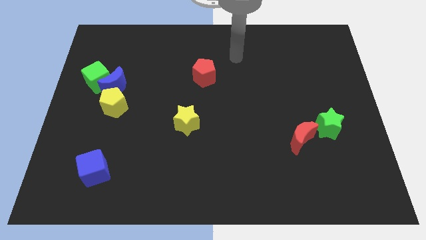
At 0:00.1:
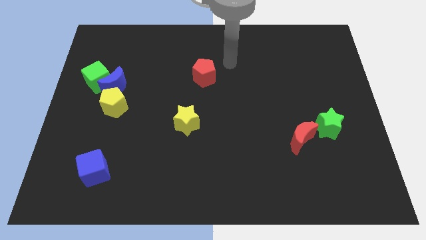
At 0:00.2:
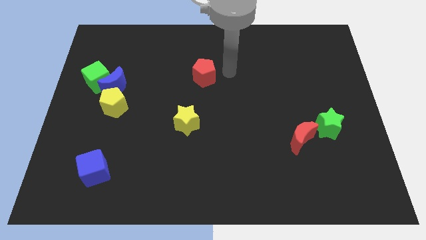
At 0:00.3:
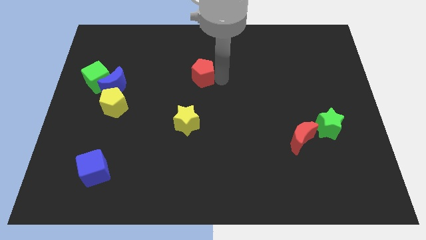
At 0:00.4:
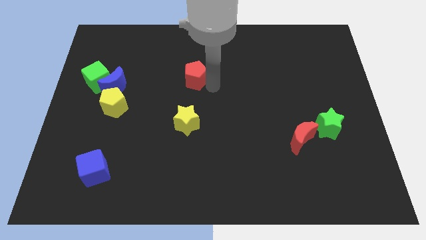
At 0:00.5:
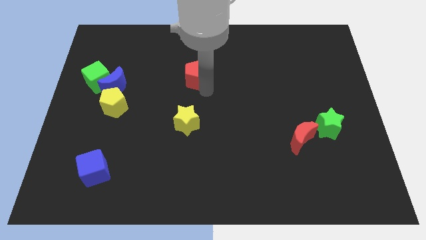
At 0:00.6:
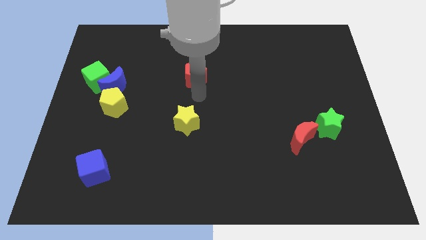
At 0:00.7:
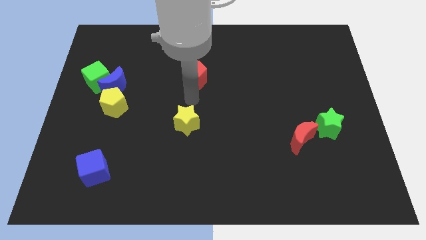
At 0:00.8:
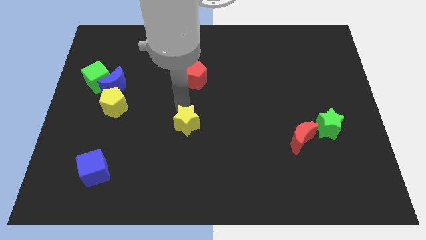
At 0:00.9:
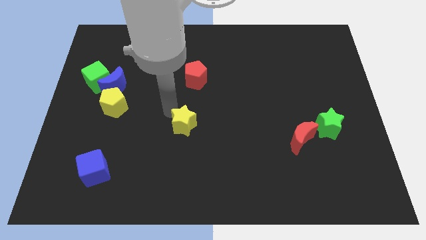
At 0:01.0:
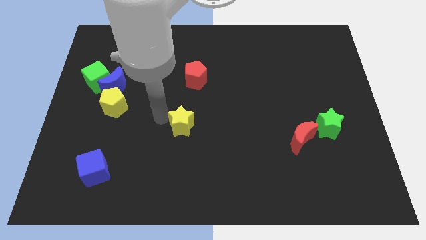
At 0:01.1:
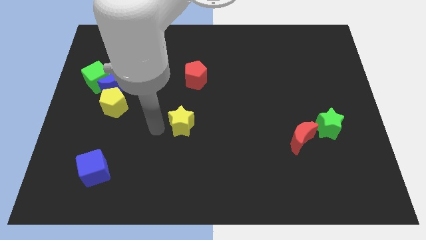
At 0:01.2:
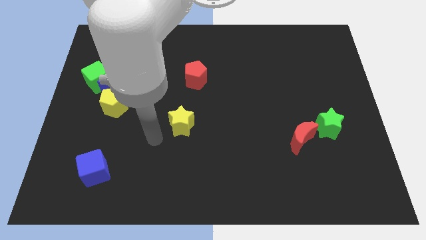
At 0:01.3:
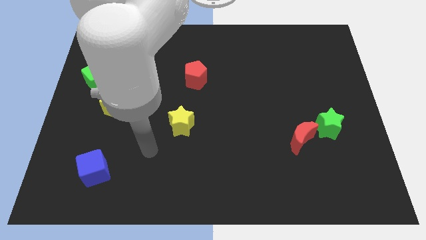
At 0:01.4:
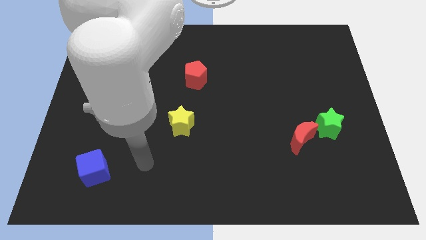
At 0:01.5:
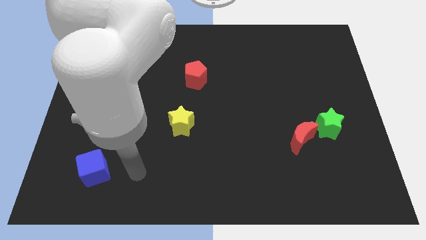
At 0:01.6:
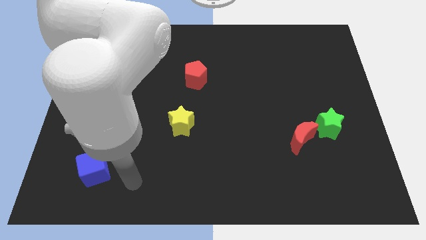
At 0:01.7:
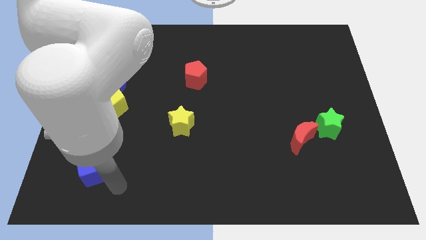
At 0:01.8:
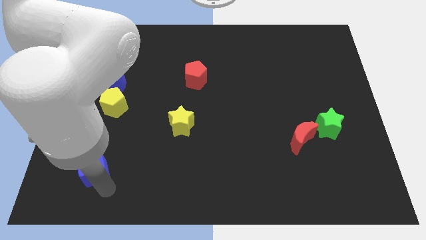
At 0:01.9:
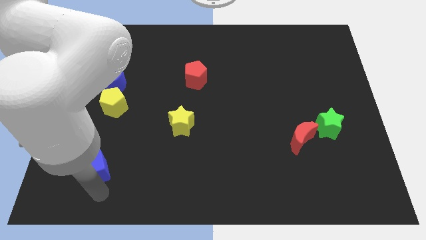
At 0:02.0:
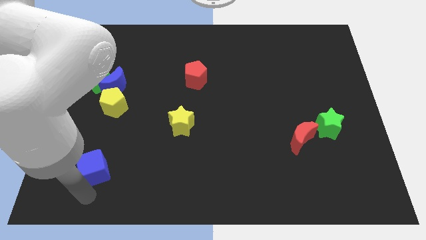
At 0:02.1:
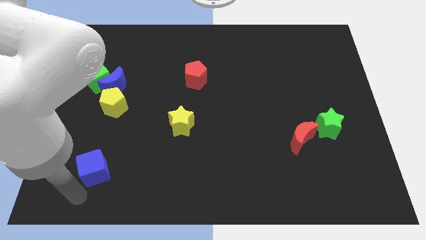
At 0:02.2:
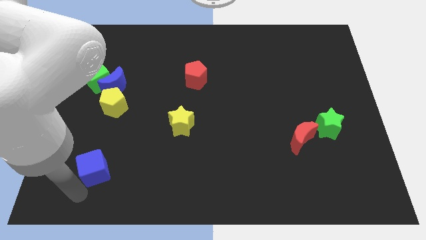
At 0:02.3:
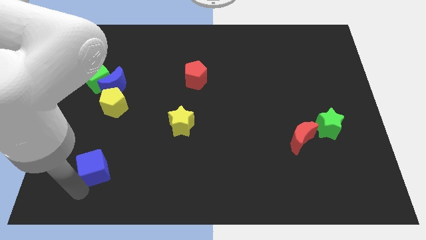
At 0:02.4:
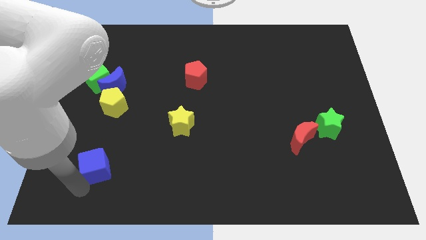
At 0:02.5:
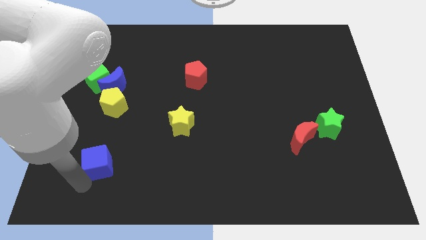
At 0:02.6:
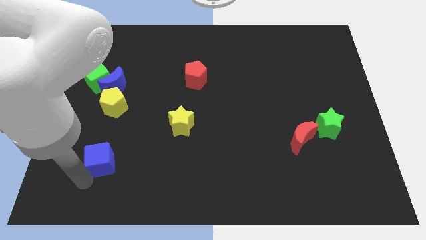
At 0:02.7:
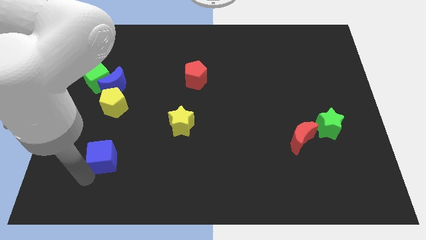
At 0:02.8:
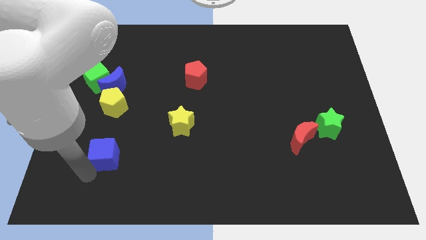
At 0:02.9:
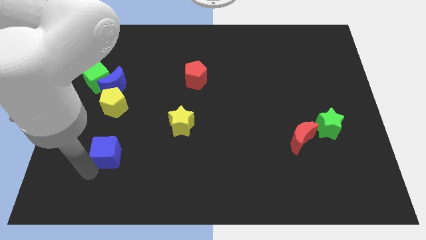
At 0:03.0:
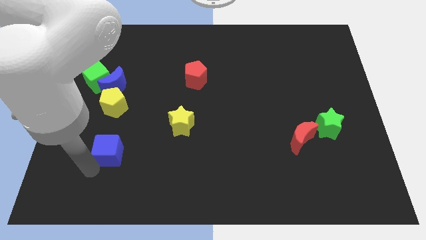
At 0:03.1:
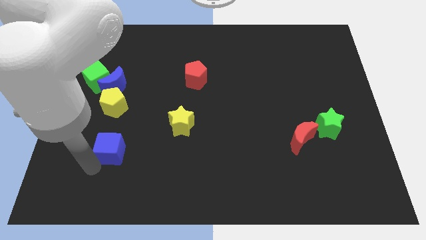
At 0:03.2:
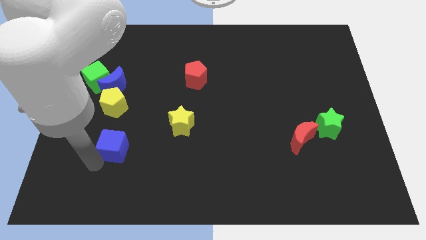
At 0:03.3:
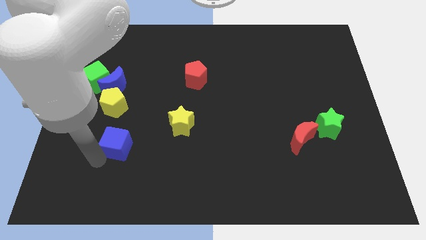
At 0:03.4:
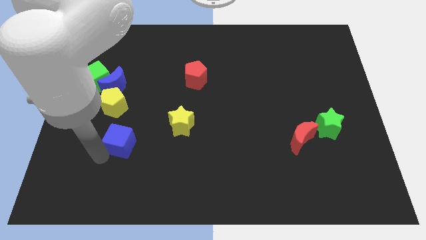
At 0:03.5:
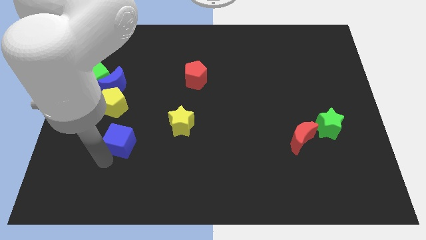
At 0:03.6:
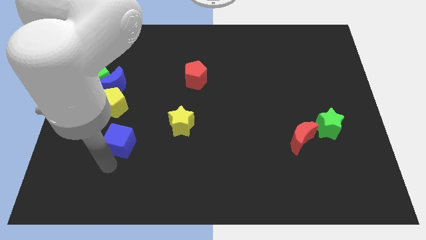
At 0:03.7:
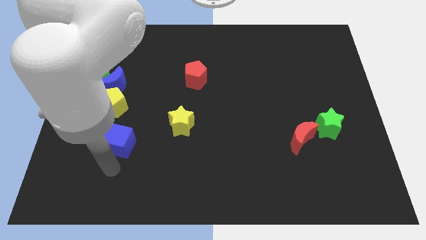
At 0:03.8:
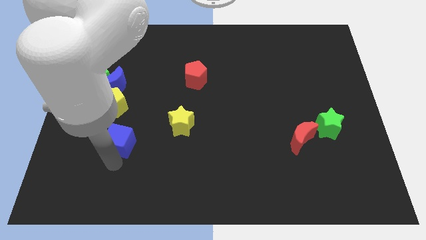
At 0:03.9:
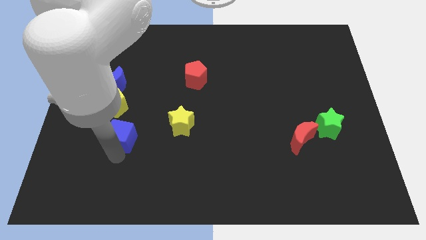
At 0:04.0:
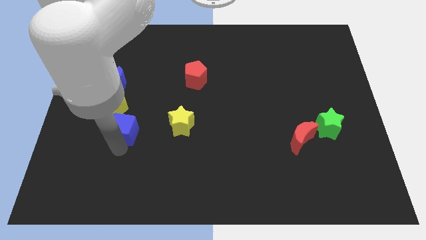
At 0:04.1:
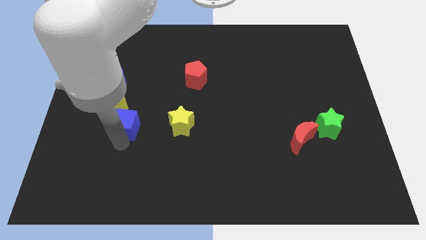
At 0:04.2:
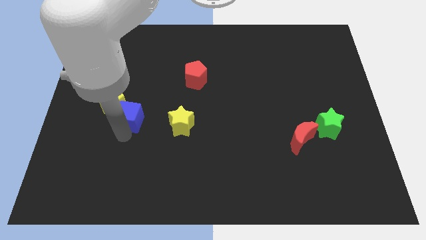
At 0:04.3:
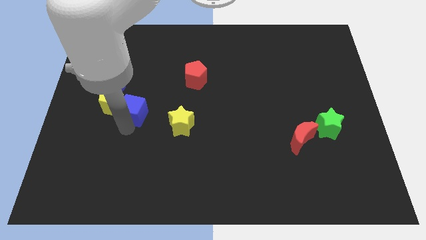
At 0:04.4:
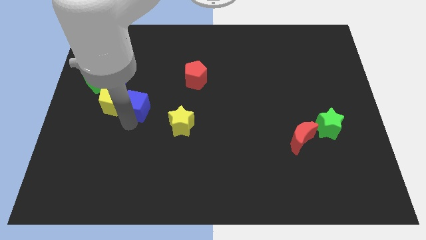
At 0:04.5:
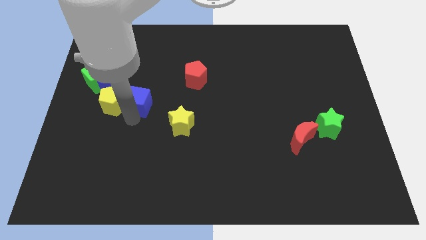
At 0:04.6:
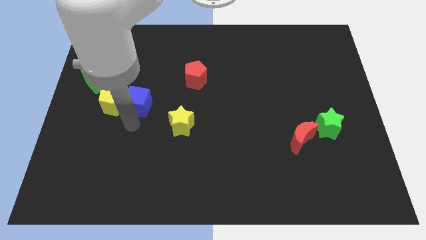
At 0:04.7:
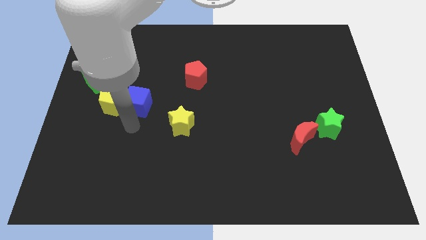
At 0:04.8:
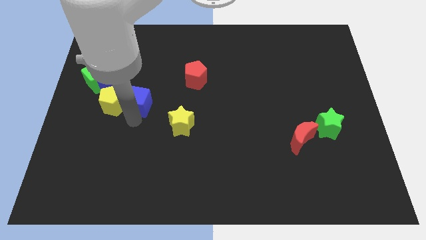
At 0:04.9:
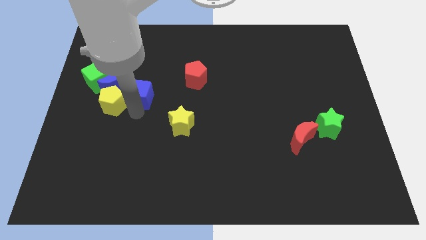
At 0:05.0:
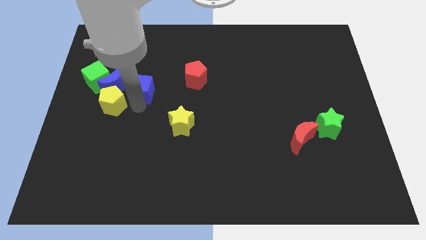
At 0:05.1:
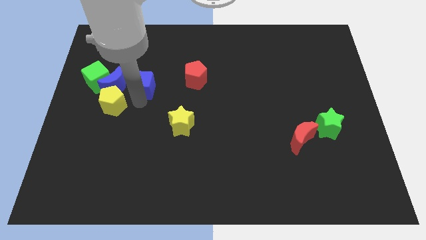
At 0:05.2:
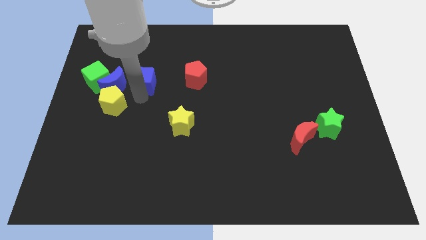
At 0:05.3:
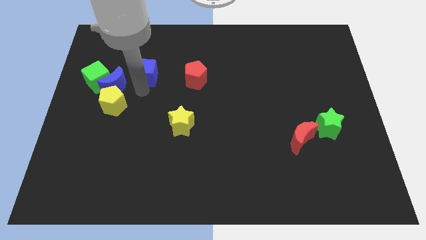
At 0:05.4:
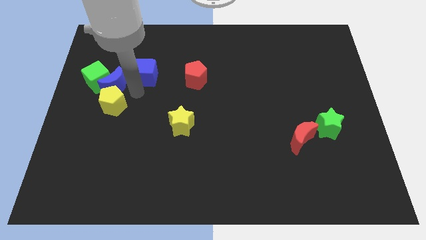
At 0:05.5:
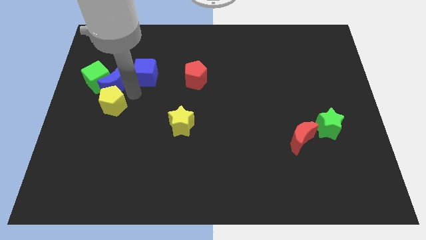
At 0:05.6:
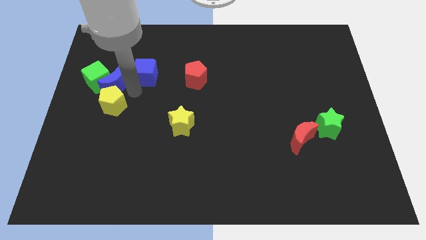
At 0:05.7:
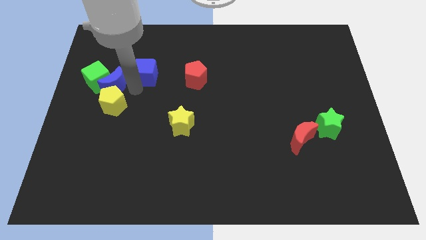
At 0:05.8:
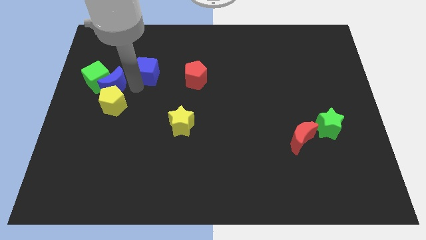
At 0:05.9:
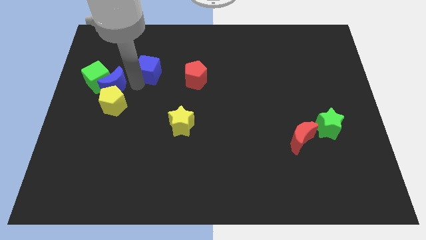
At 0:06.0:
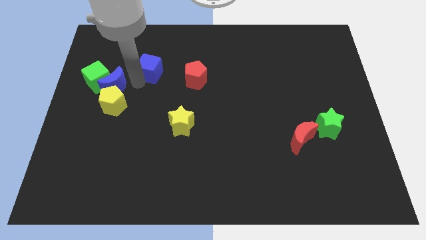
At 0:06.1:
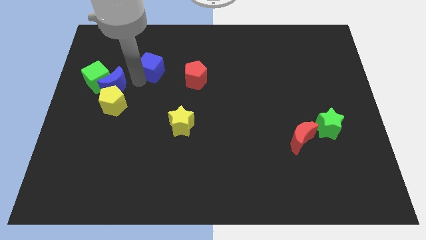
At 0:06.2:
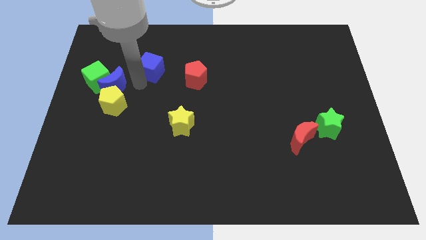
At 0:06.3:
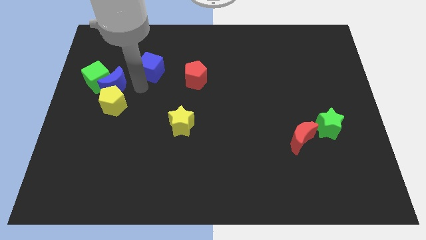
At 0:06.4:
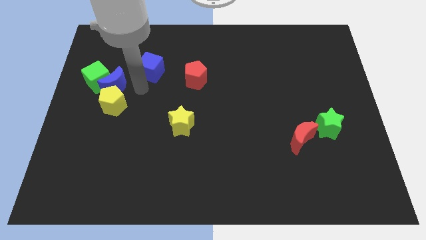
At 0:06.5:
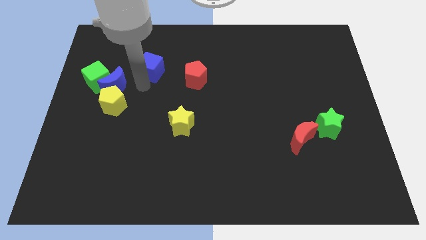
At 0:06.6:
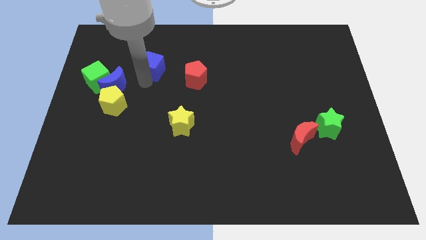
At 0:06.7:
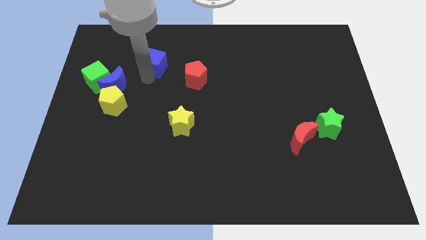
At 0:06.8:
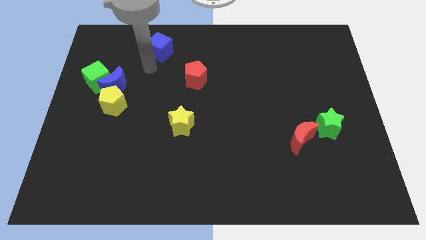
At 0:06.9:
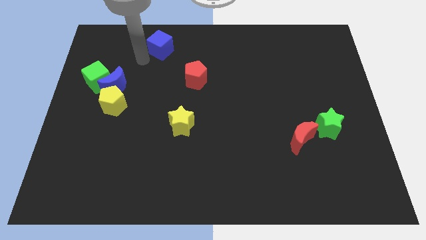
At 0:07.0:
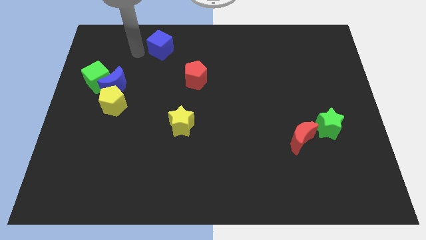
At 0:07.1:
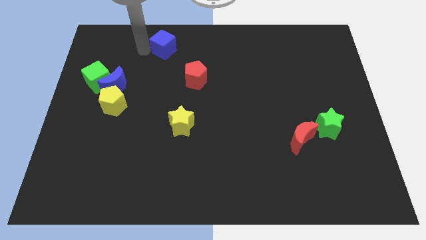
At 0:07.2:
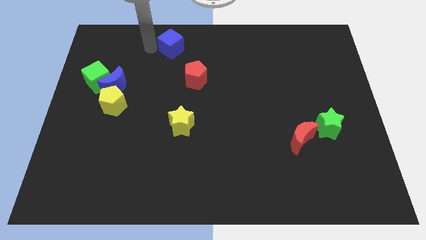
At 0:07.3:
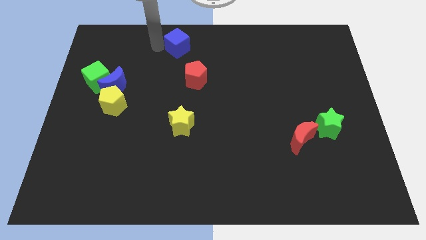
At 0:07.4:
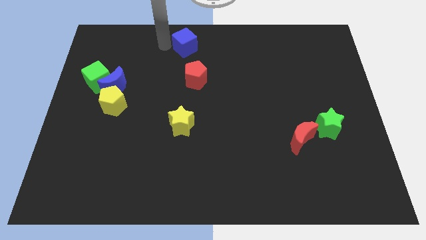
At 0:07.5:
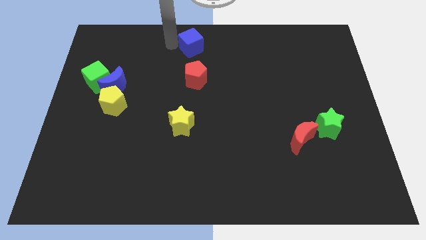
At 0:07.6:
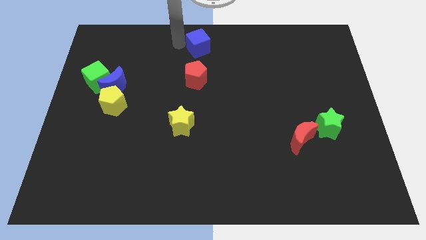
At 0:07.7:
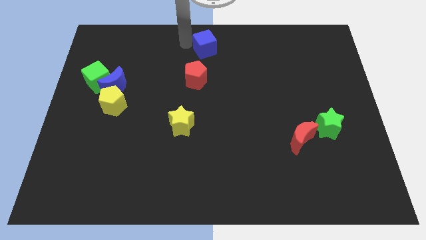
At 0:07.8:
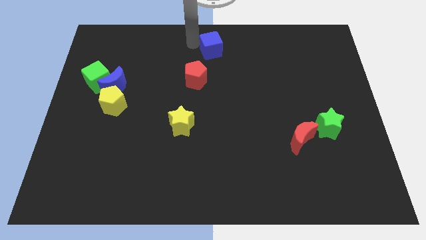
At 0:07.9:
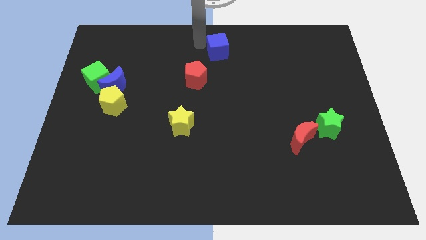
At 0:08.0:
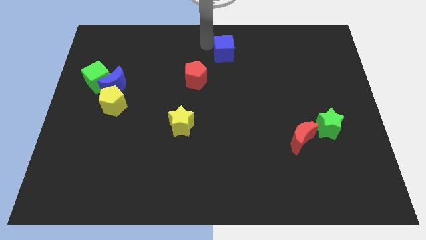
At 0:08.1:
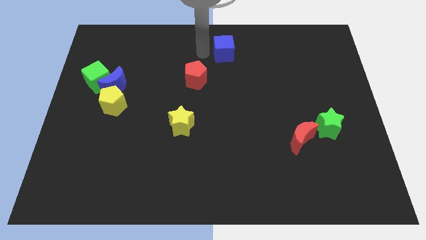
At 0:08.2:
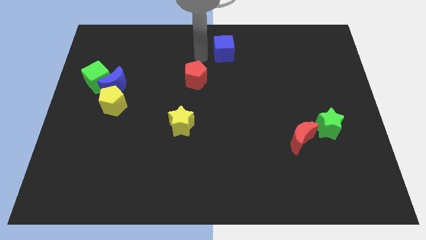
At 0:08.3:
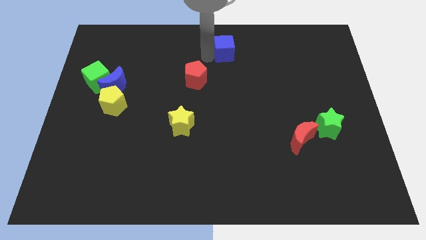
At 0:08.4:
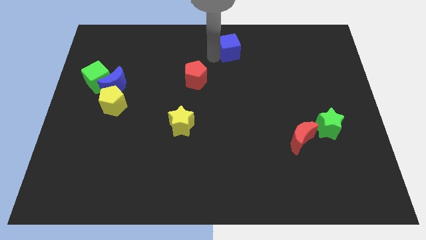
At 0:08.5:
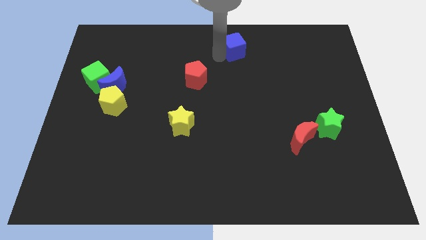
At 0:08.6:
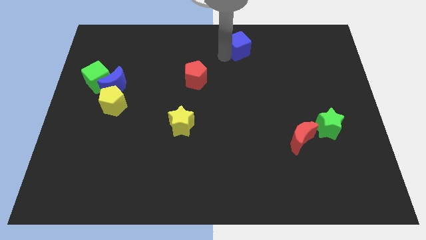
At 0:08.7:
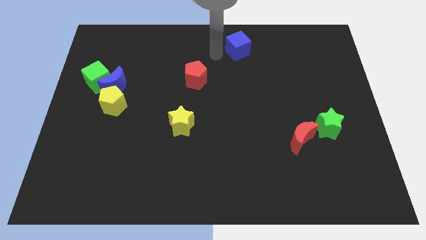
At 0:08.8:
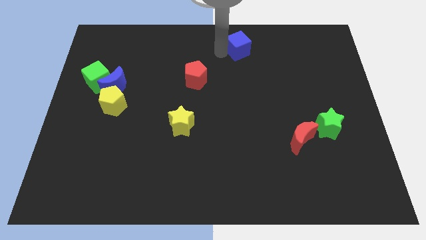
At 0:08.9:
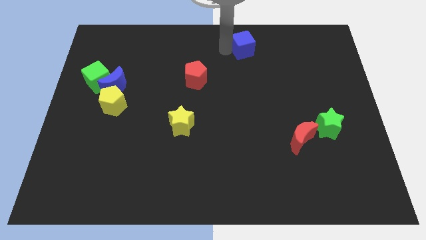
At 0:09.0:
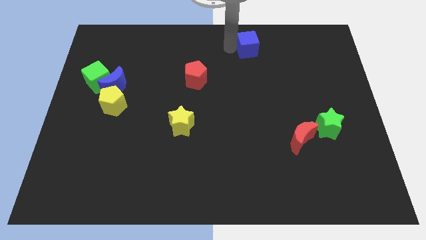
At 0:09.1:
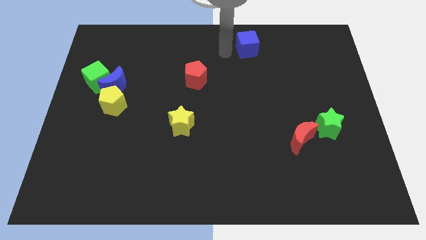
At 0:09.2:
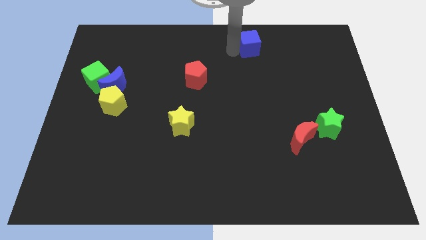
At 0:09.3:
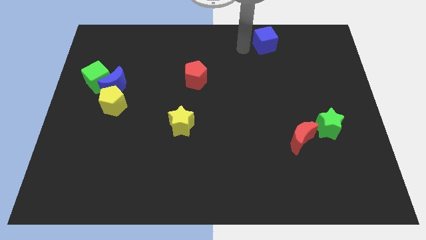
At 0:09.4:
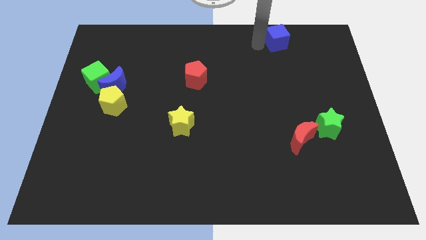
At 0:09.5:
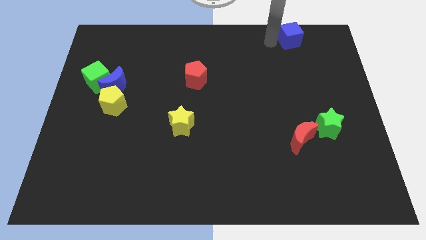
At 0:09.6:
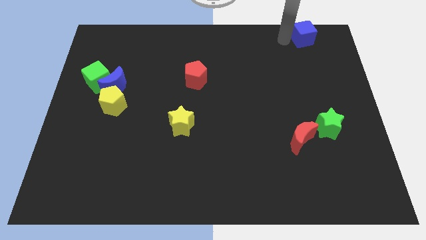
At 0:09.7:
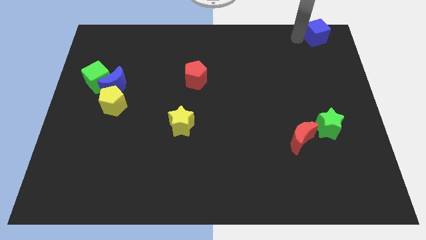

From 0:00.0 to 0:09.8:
slide the blue cube to the upper right corner
